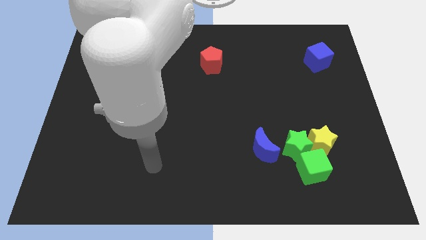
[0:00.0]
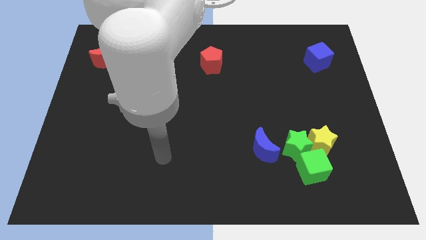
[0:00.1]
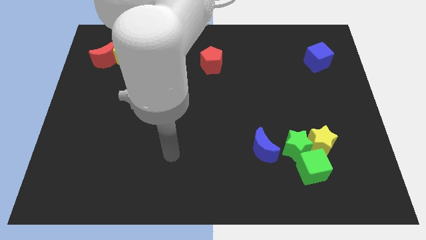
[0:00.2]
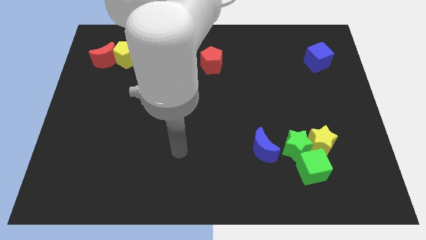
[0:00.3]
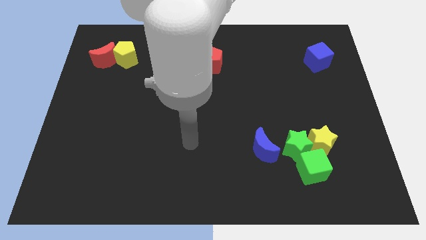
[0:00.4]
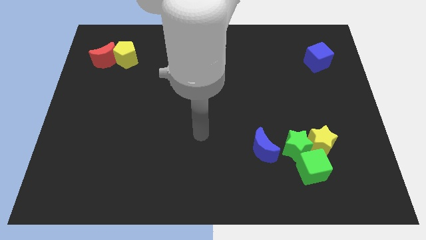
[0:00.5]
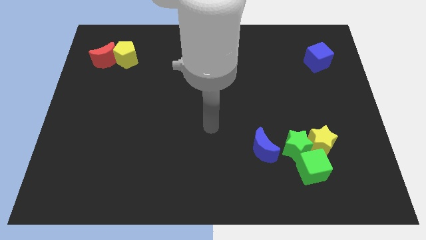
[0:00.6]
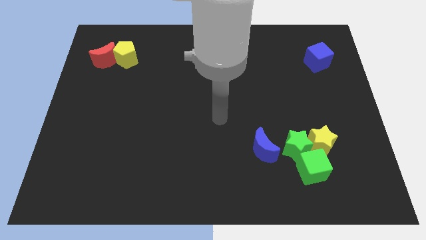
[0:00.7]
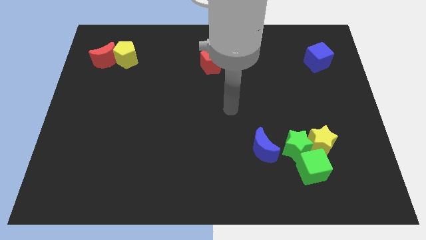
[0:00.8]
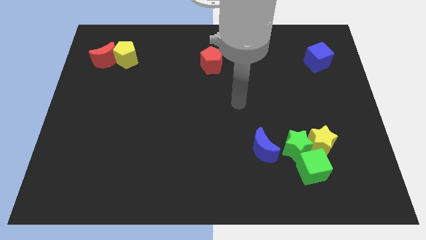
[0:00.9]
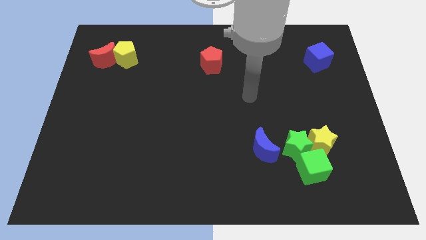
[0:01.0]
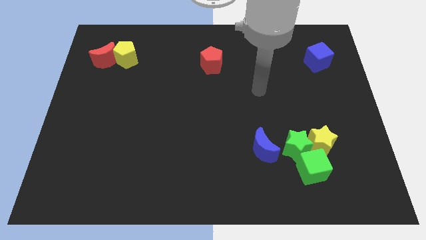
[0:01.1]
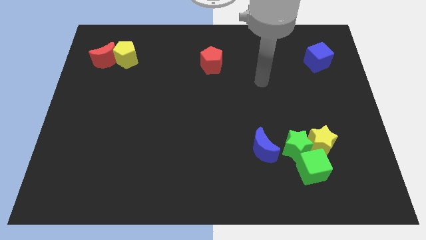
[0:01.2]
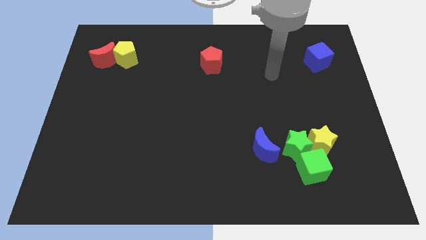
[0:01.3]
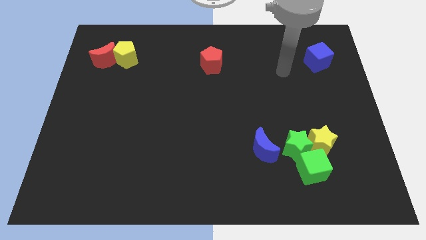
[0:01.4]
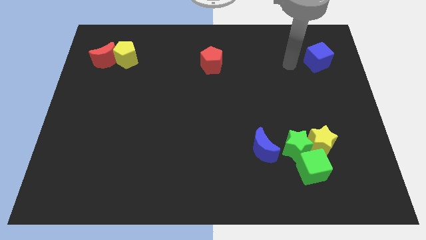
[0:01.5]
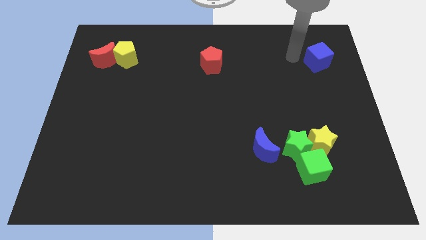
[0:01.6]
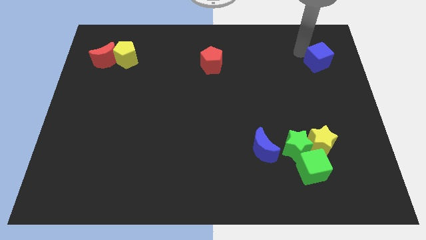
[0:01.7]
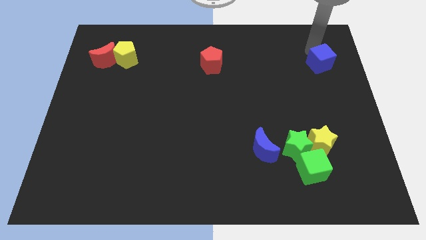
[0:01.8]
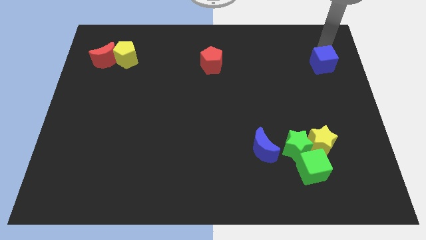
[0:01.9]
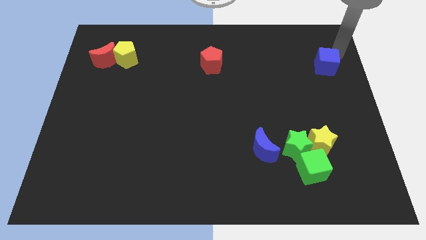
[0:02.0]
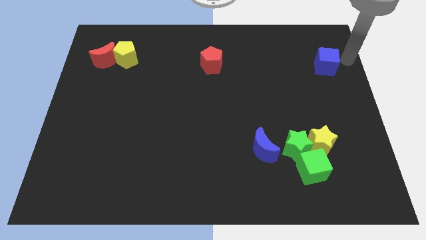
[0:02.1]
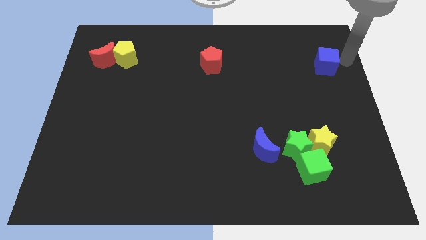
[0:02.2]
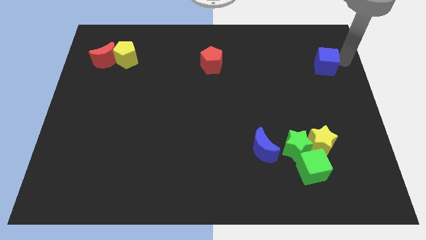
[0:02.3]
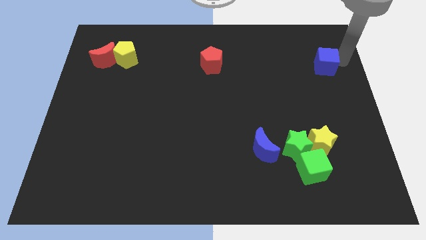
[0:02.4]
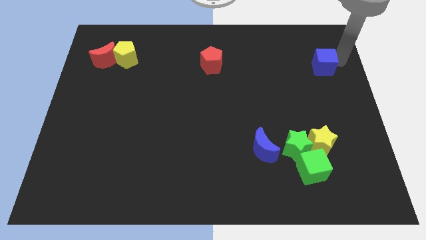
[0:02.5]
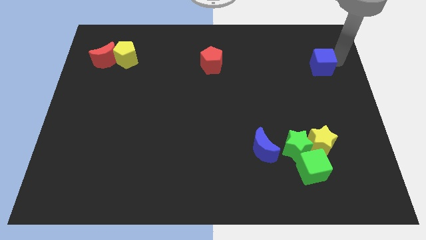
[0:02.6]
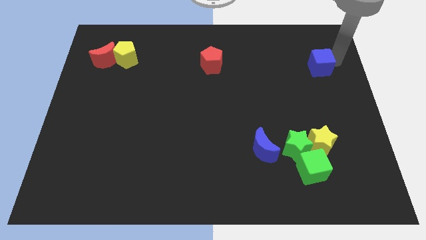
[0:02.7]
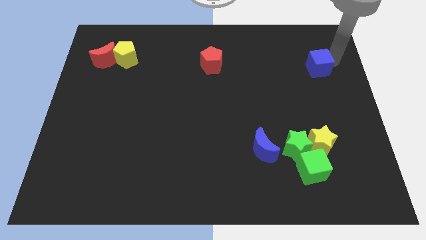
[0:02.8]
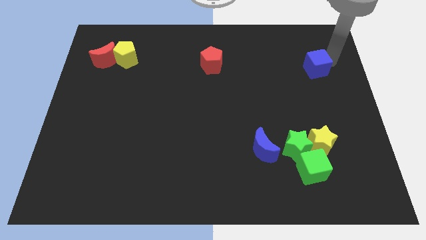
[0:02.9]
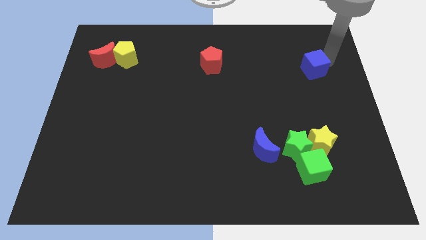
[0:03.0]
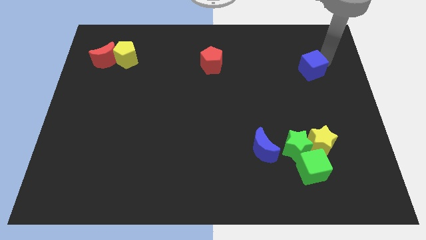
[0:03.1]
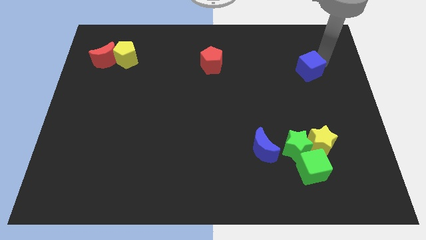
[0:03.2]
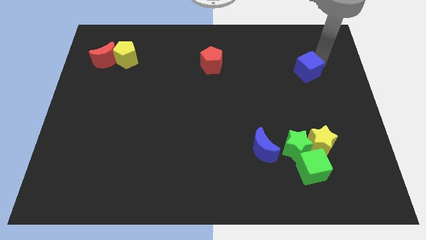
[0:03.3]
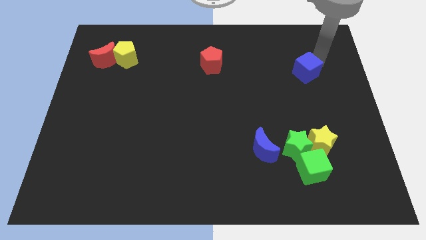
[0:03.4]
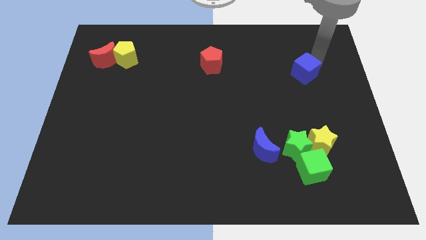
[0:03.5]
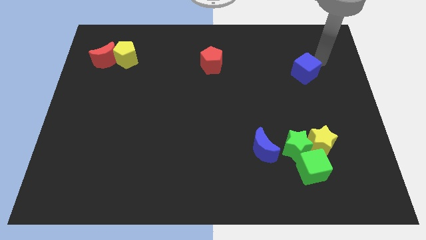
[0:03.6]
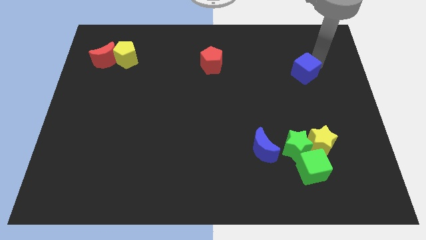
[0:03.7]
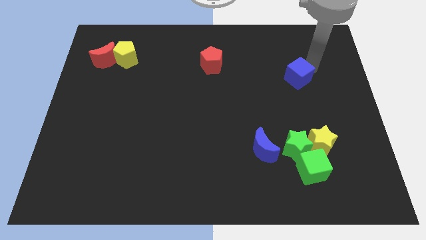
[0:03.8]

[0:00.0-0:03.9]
slightly slide the blue cube down and then to the left

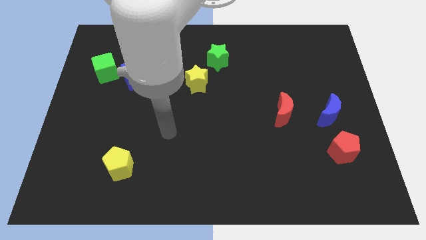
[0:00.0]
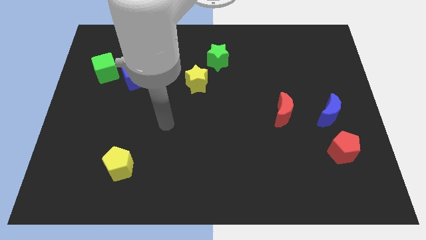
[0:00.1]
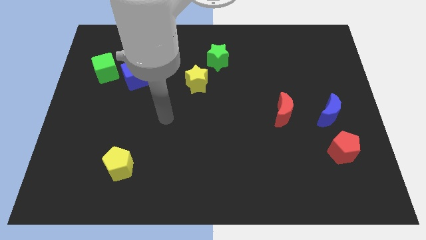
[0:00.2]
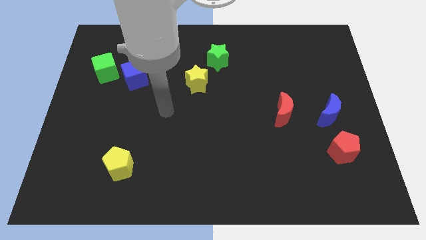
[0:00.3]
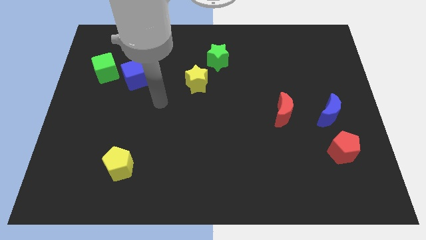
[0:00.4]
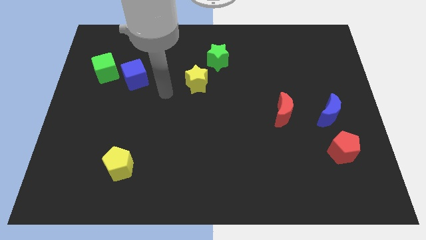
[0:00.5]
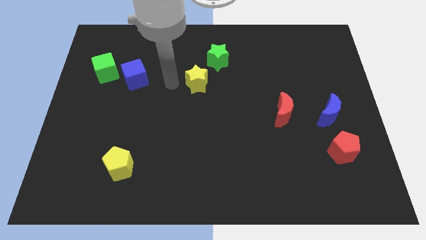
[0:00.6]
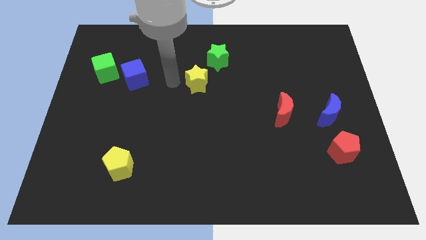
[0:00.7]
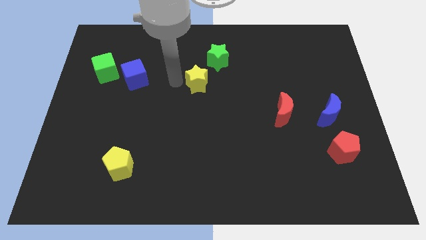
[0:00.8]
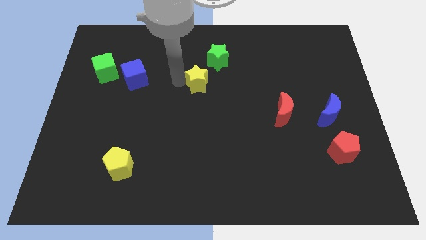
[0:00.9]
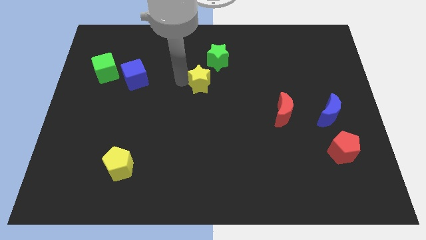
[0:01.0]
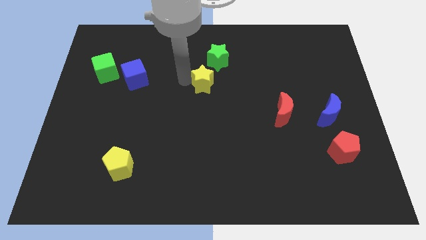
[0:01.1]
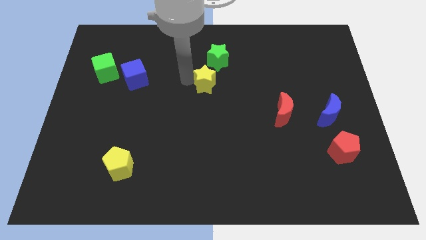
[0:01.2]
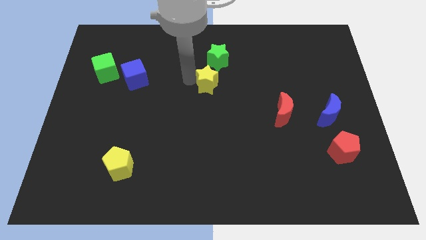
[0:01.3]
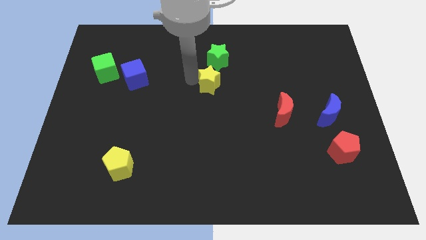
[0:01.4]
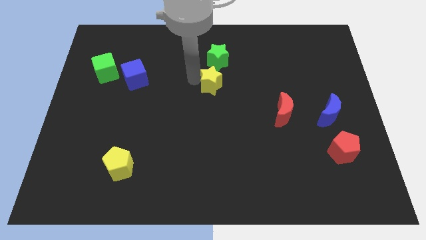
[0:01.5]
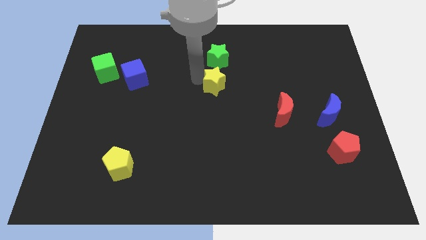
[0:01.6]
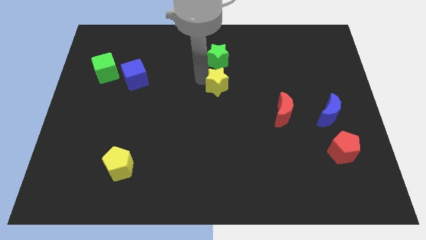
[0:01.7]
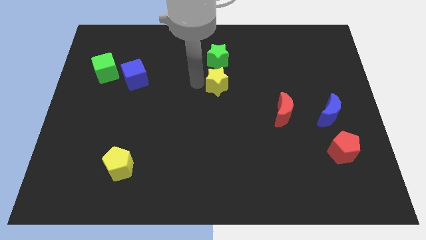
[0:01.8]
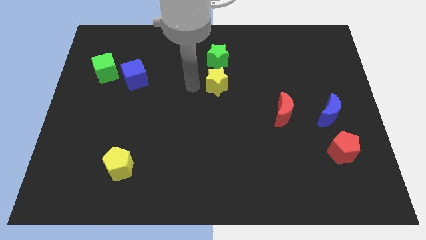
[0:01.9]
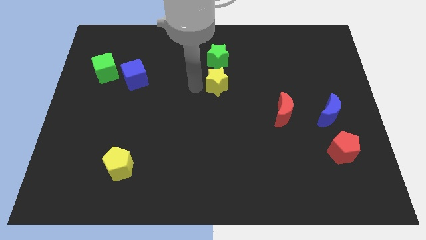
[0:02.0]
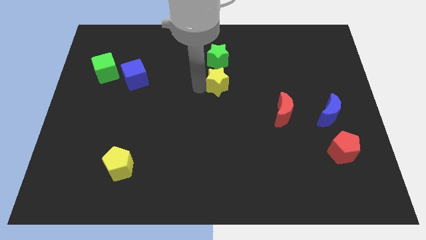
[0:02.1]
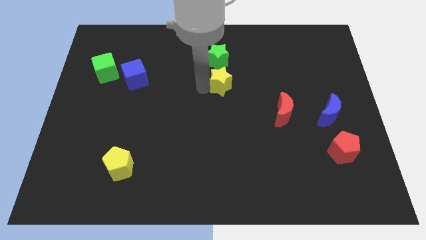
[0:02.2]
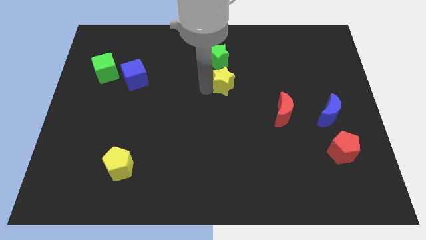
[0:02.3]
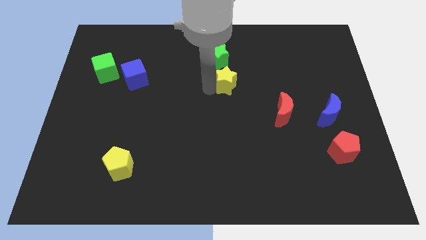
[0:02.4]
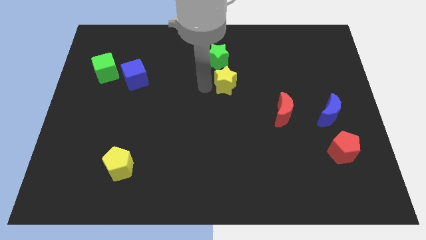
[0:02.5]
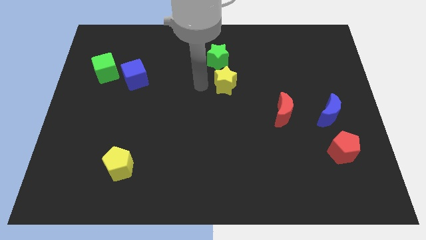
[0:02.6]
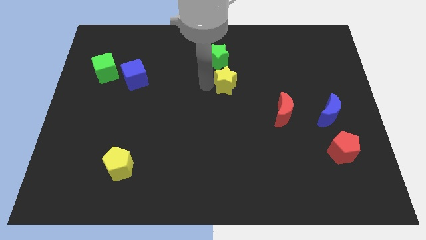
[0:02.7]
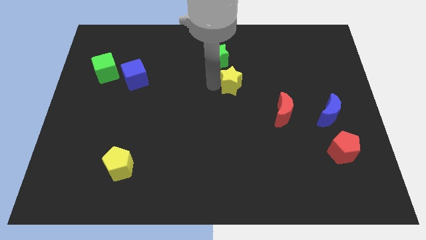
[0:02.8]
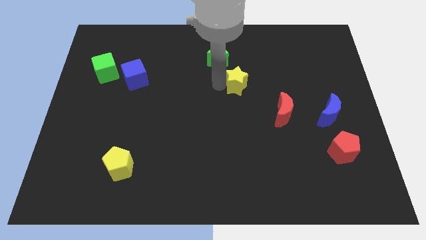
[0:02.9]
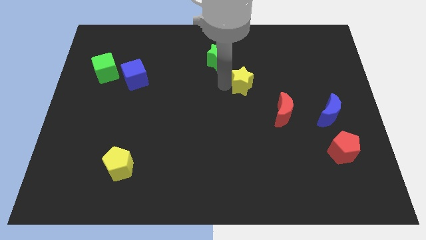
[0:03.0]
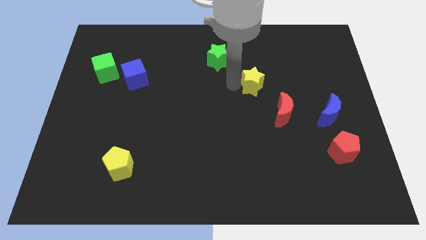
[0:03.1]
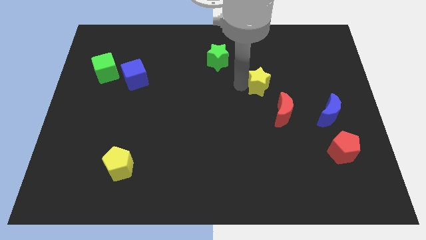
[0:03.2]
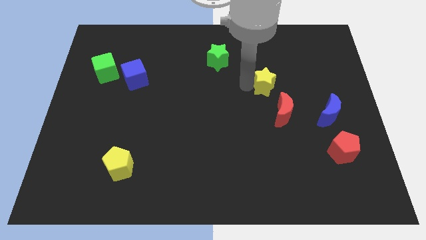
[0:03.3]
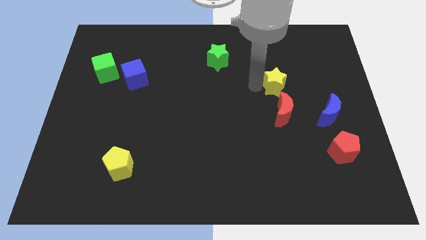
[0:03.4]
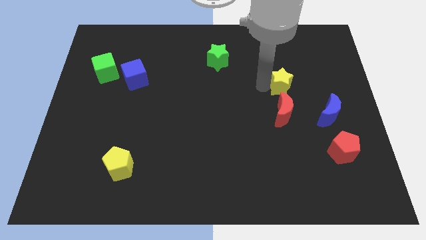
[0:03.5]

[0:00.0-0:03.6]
move the yellow star to the right

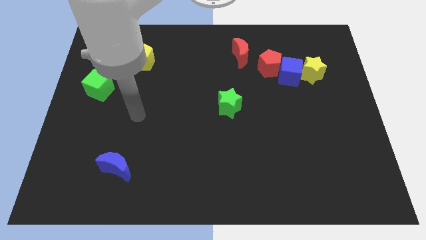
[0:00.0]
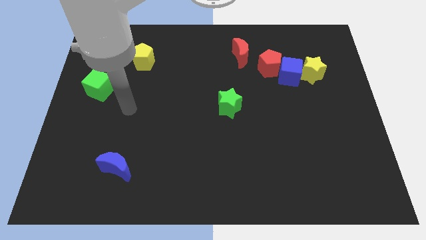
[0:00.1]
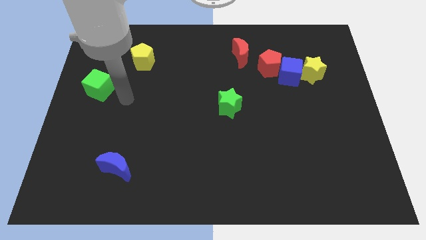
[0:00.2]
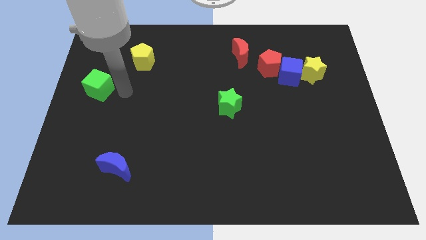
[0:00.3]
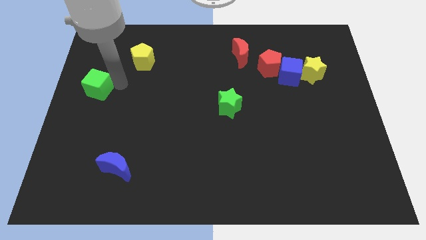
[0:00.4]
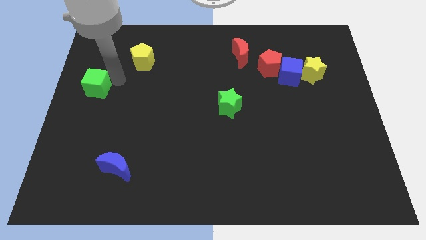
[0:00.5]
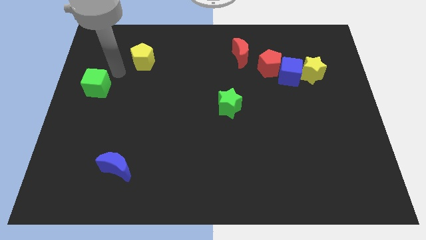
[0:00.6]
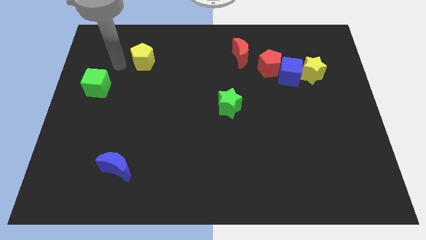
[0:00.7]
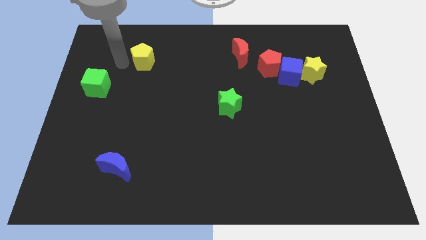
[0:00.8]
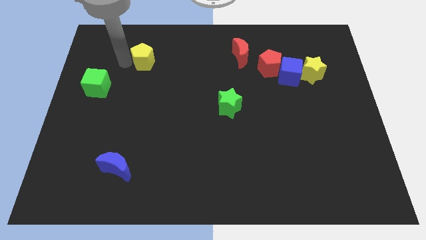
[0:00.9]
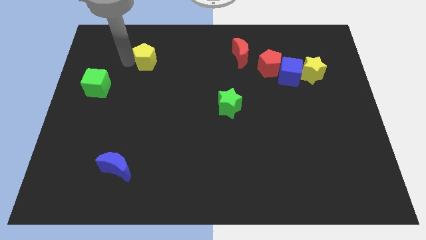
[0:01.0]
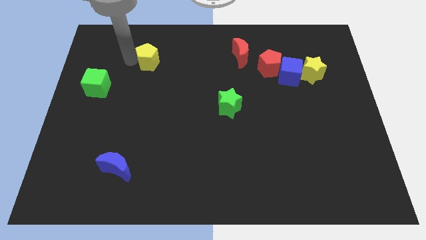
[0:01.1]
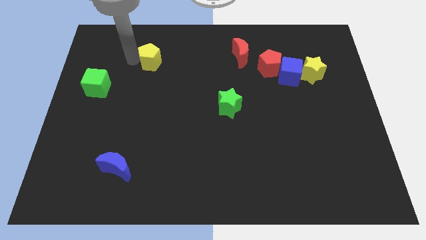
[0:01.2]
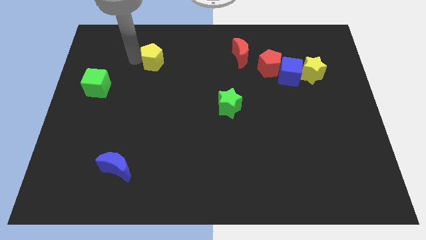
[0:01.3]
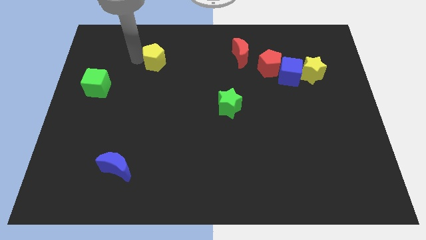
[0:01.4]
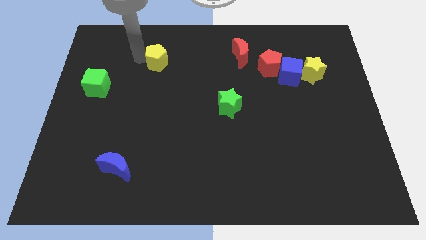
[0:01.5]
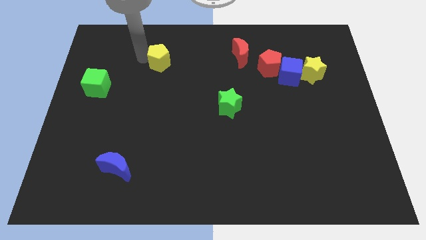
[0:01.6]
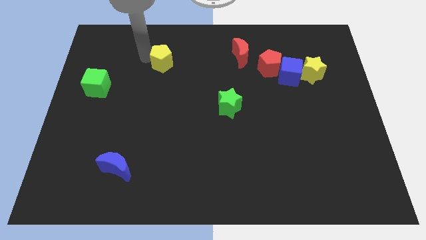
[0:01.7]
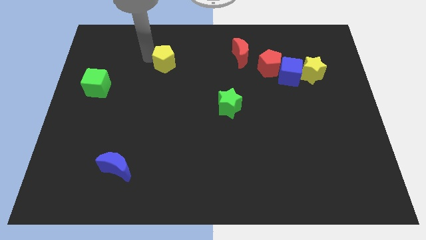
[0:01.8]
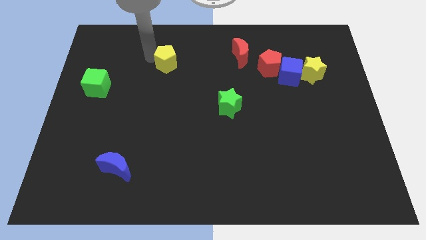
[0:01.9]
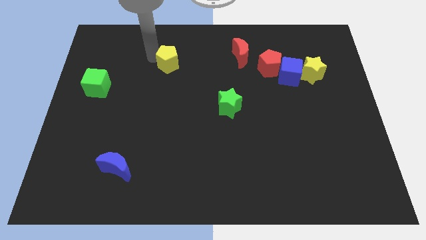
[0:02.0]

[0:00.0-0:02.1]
slightly move the yellow pentagon right
